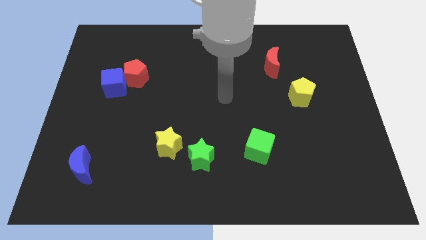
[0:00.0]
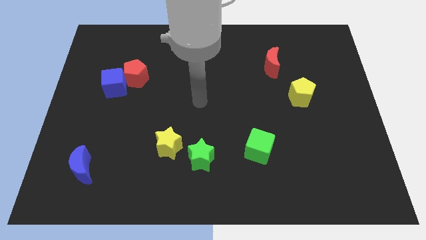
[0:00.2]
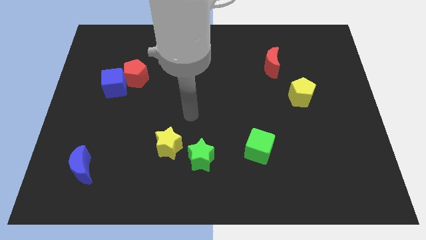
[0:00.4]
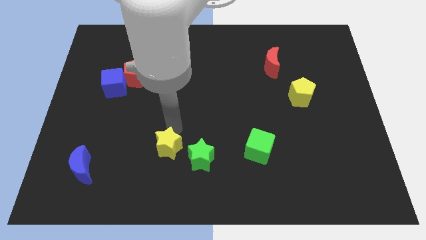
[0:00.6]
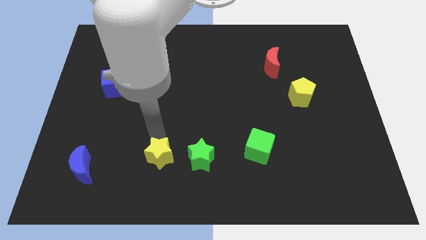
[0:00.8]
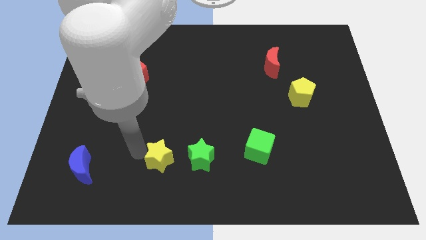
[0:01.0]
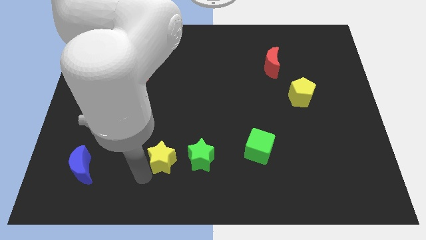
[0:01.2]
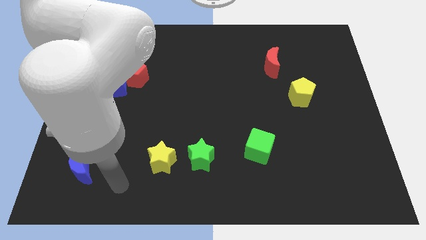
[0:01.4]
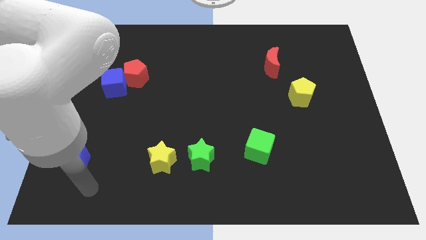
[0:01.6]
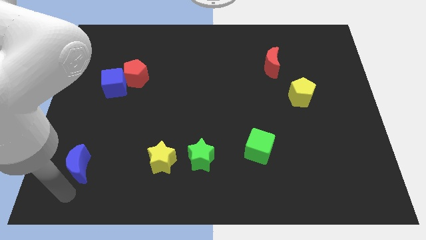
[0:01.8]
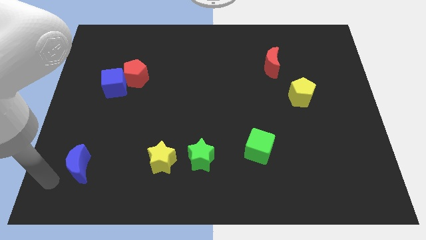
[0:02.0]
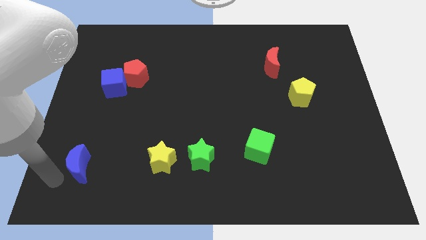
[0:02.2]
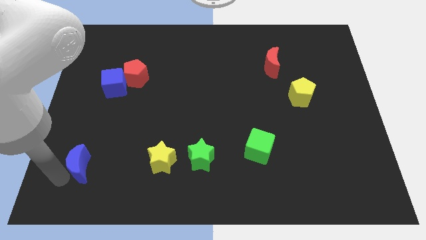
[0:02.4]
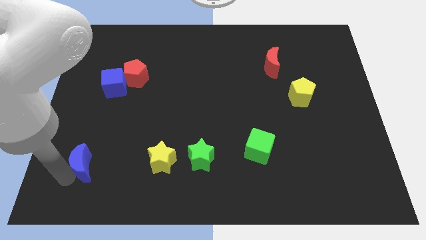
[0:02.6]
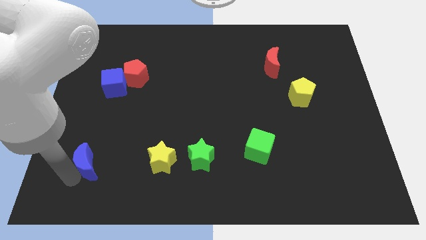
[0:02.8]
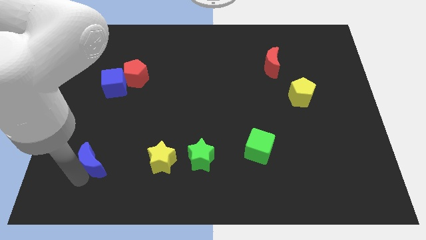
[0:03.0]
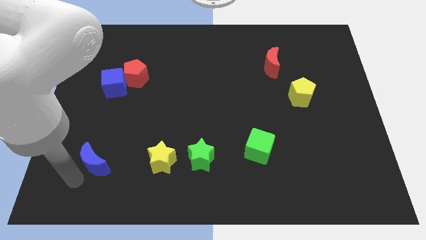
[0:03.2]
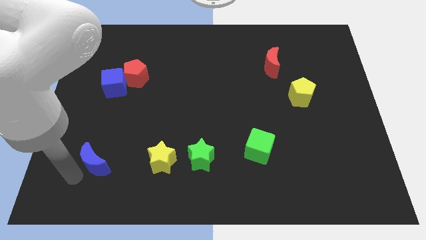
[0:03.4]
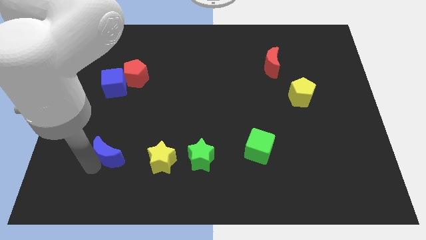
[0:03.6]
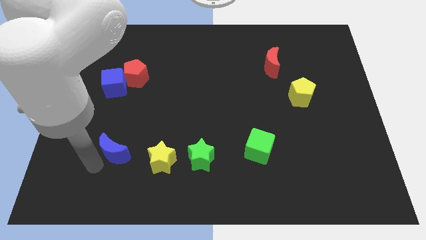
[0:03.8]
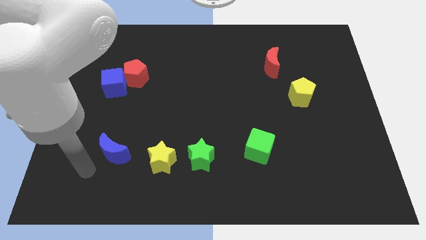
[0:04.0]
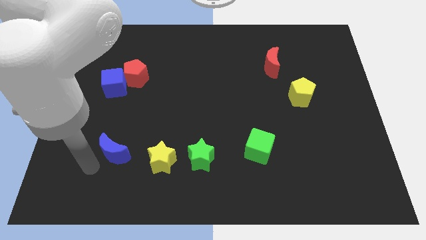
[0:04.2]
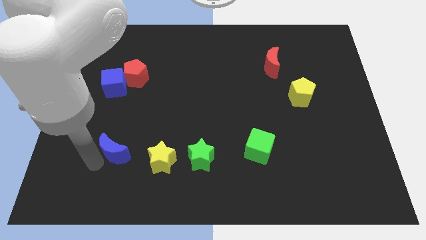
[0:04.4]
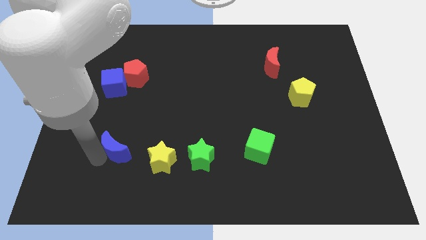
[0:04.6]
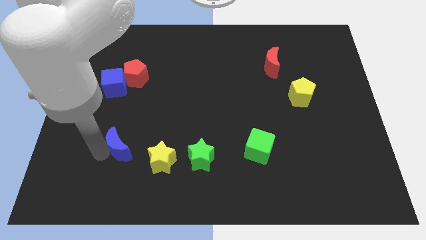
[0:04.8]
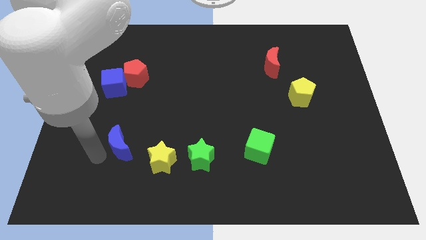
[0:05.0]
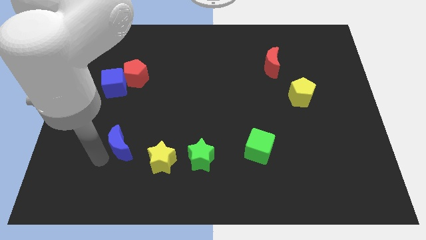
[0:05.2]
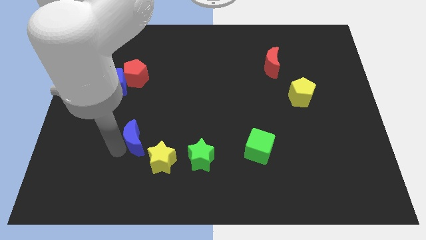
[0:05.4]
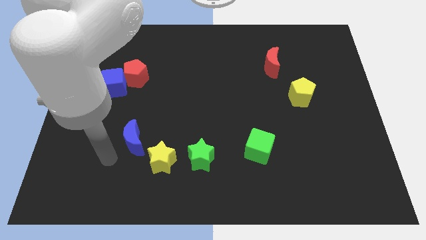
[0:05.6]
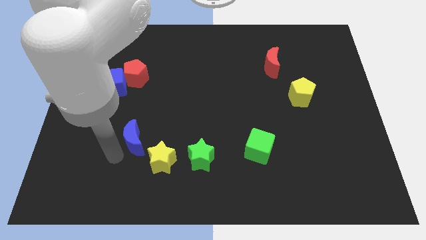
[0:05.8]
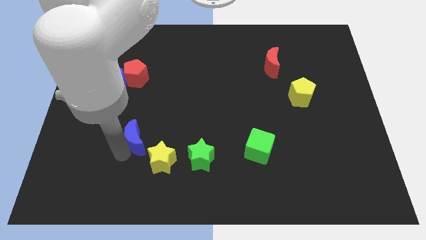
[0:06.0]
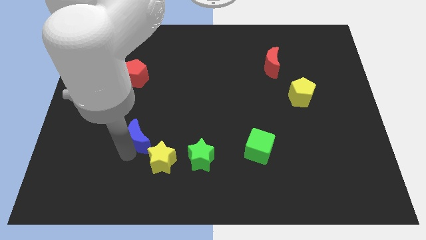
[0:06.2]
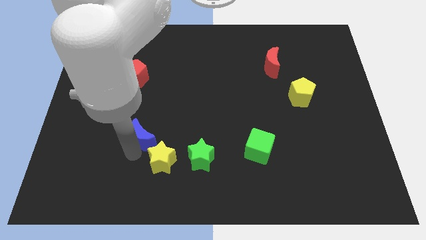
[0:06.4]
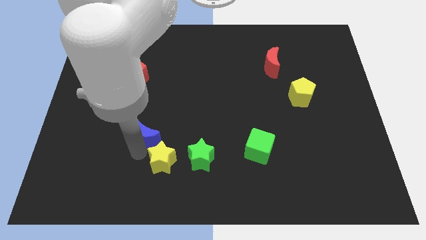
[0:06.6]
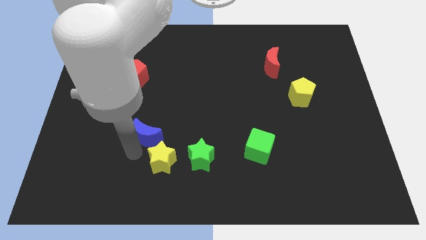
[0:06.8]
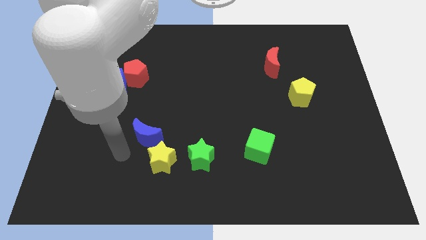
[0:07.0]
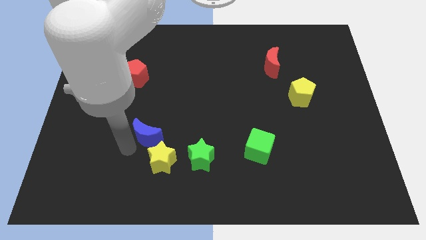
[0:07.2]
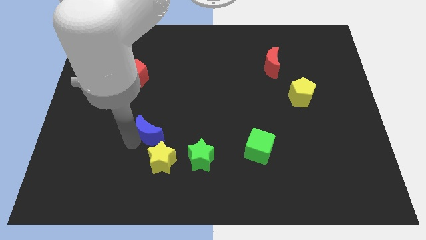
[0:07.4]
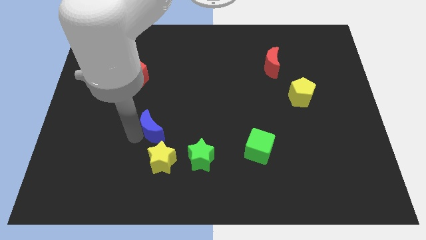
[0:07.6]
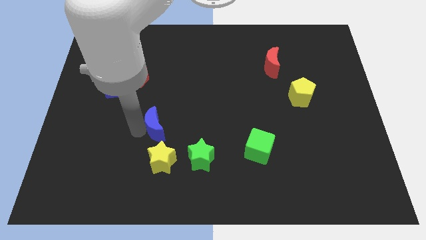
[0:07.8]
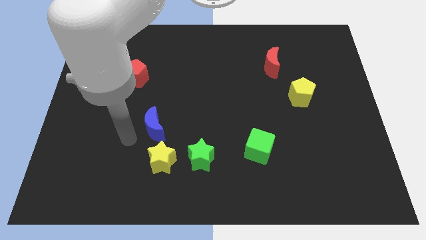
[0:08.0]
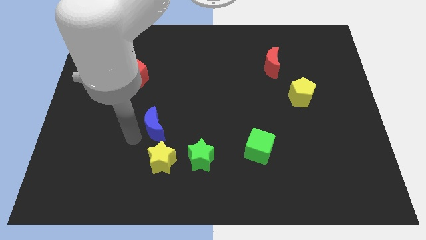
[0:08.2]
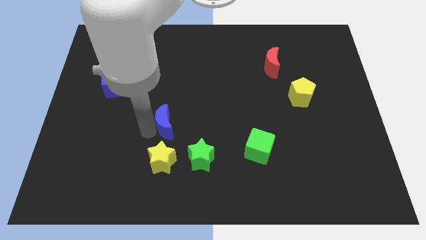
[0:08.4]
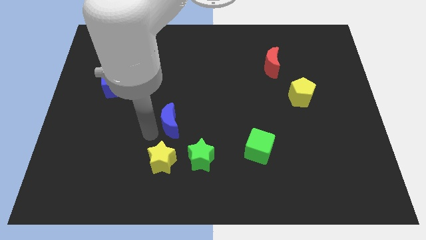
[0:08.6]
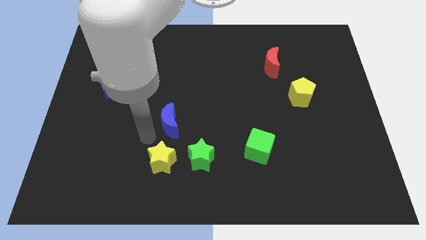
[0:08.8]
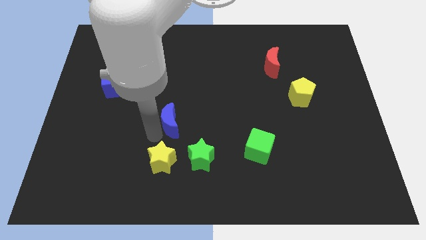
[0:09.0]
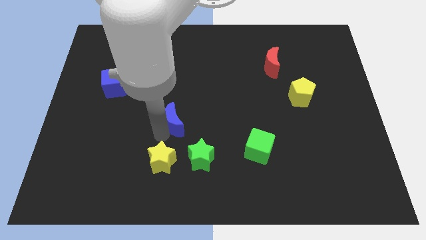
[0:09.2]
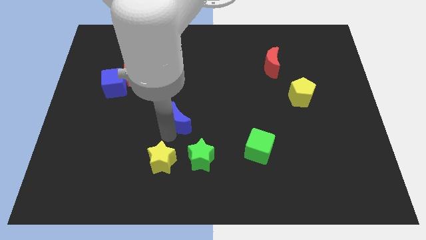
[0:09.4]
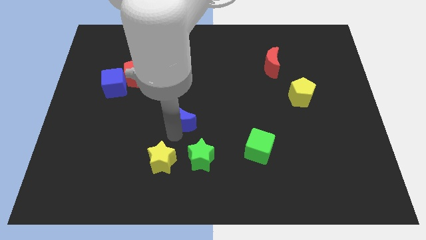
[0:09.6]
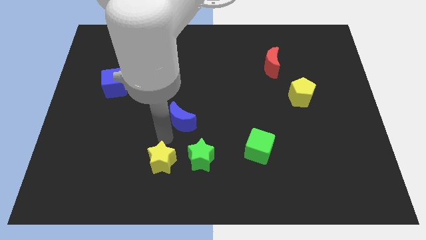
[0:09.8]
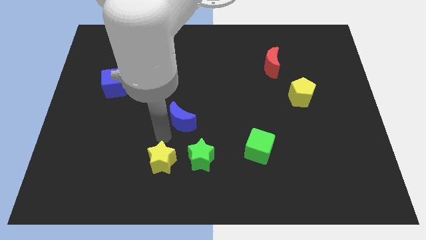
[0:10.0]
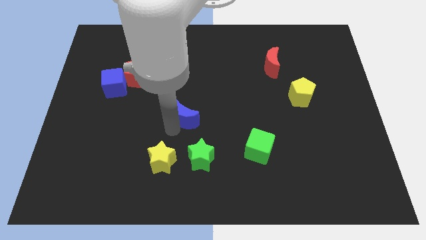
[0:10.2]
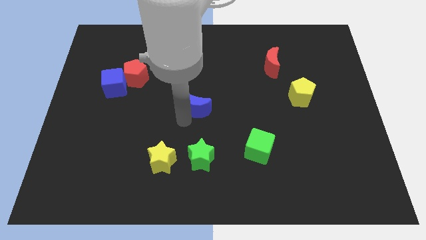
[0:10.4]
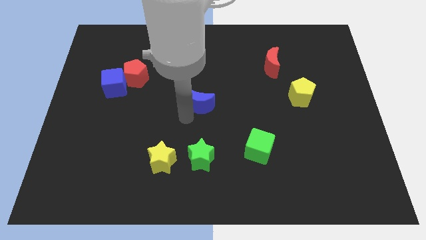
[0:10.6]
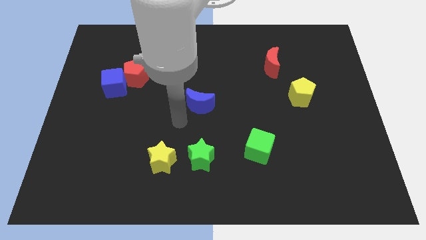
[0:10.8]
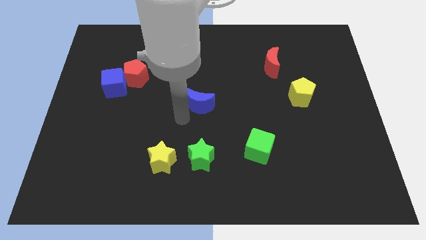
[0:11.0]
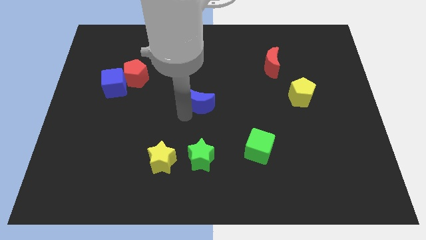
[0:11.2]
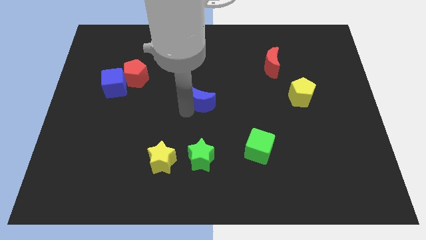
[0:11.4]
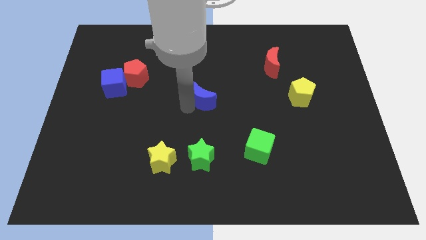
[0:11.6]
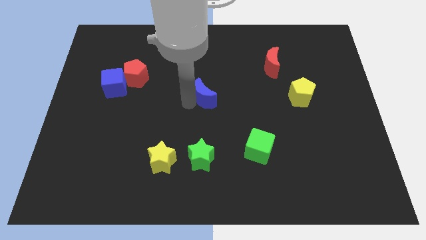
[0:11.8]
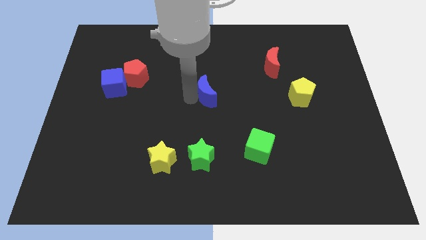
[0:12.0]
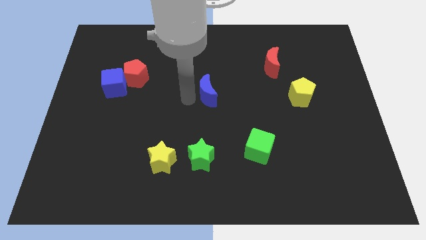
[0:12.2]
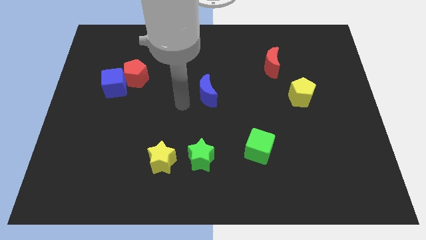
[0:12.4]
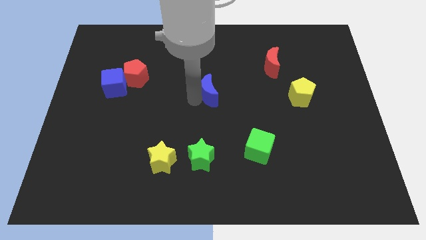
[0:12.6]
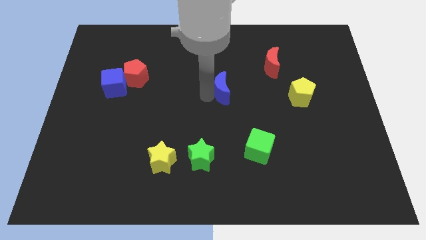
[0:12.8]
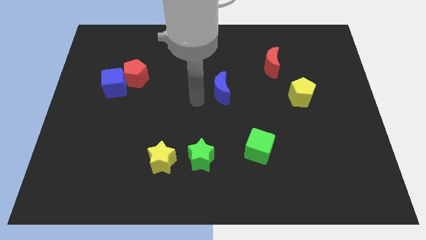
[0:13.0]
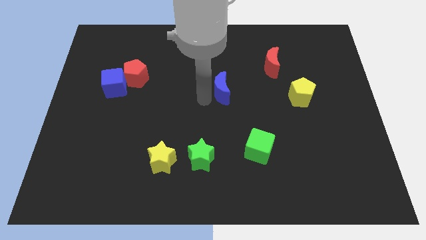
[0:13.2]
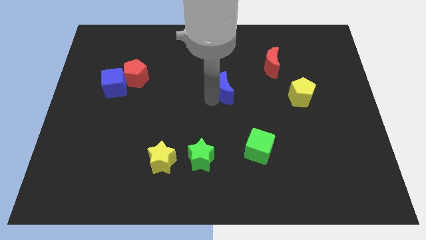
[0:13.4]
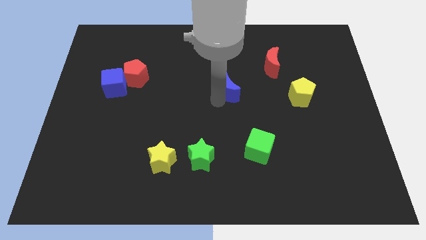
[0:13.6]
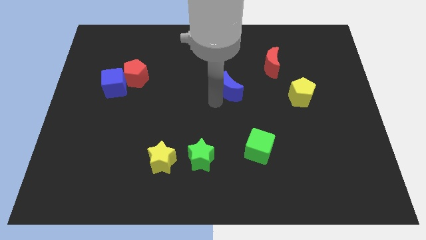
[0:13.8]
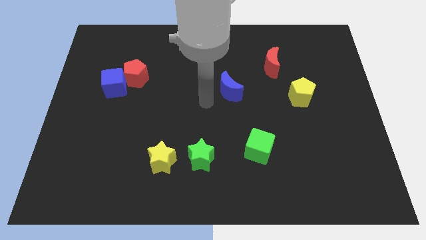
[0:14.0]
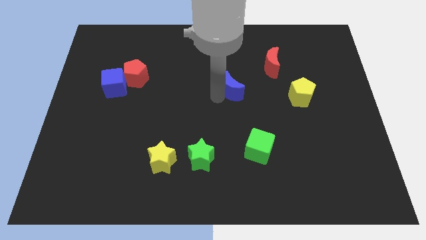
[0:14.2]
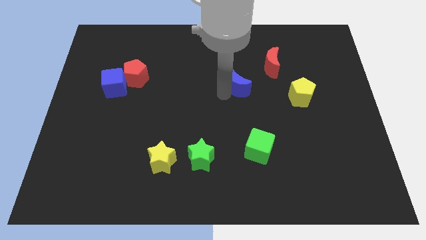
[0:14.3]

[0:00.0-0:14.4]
slide the blue moon to the bottom left side of the red moon

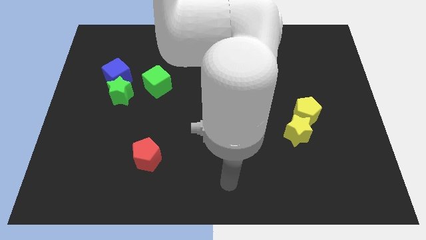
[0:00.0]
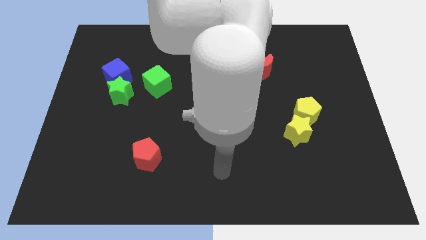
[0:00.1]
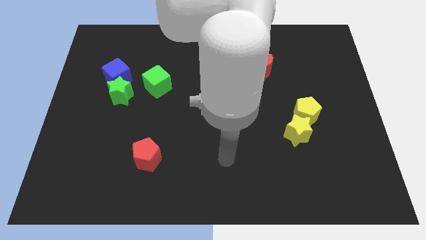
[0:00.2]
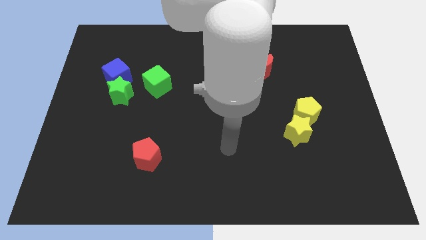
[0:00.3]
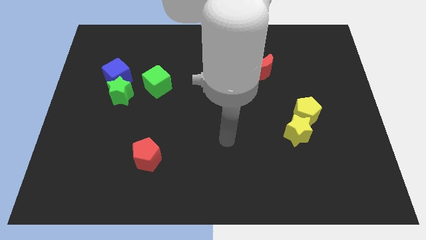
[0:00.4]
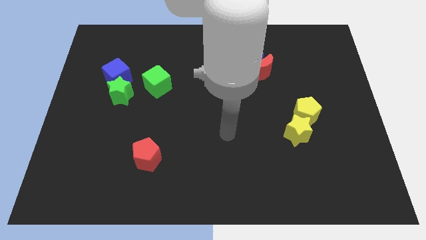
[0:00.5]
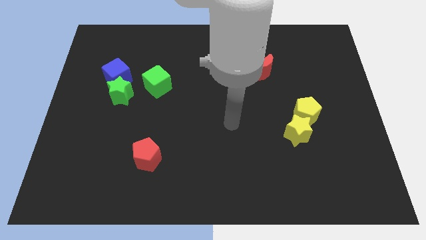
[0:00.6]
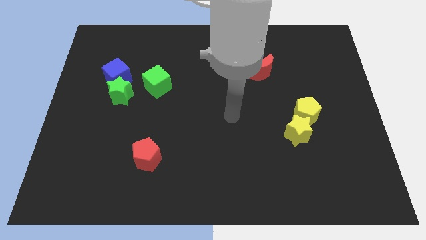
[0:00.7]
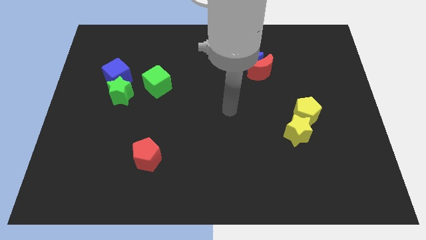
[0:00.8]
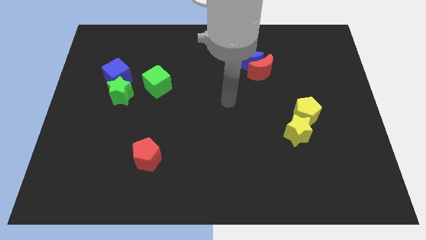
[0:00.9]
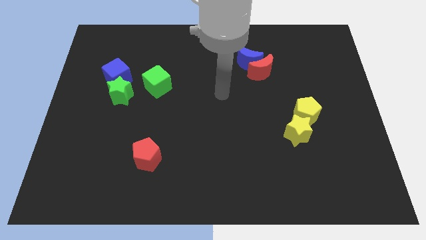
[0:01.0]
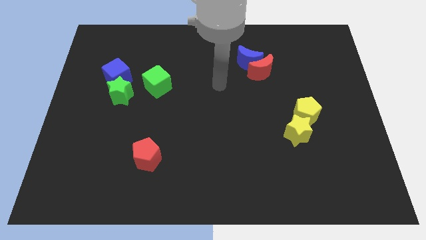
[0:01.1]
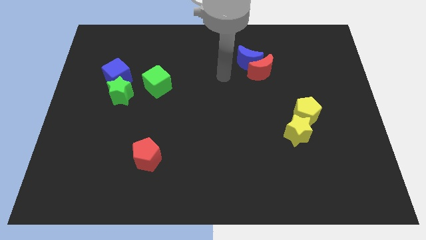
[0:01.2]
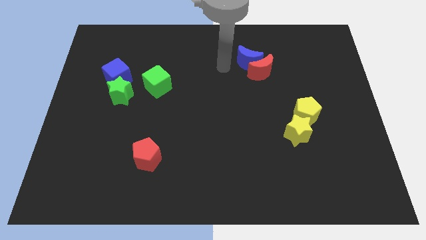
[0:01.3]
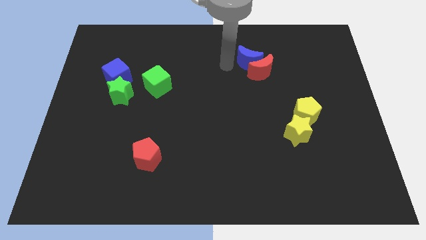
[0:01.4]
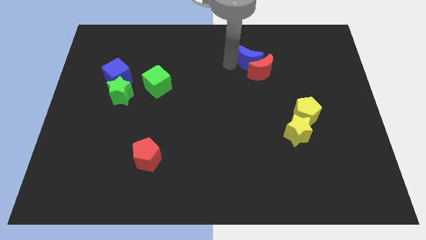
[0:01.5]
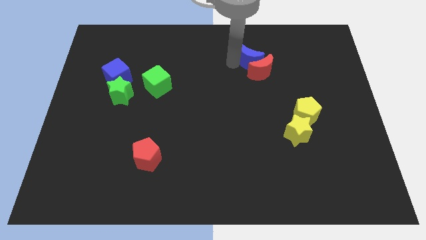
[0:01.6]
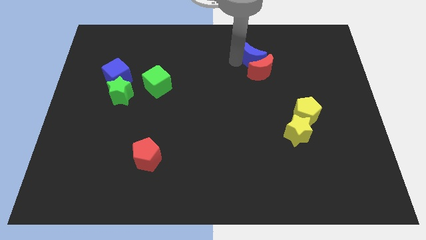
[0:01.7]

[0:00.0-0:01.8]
move the blue moon to the top right of the red moon
